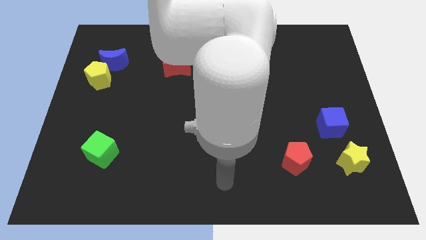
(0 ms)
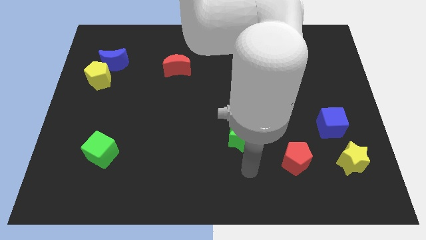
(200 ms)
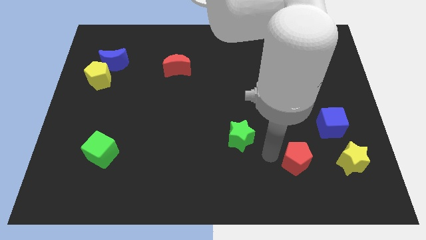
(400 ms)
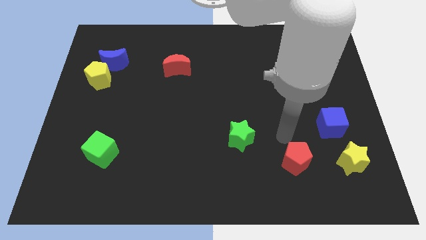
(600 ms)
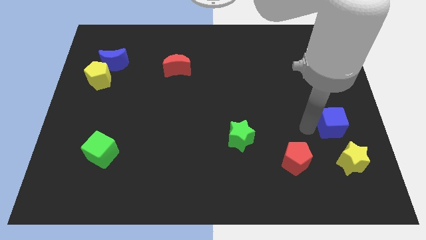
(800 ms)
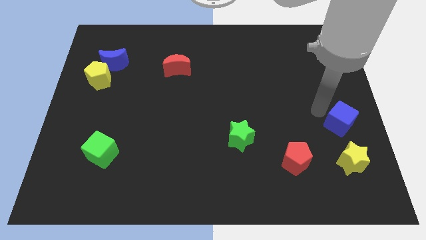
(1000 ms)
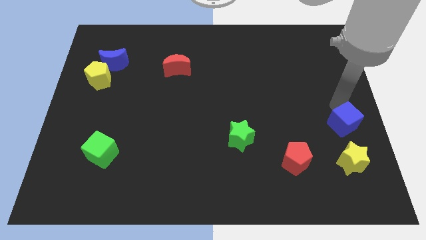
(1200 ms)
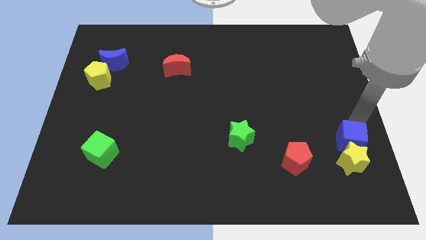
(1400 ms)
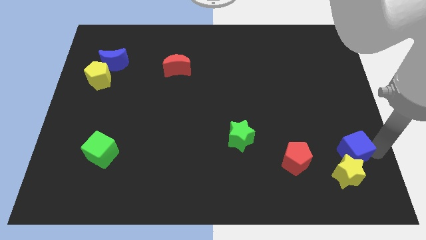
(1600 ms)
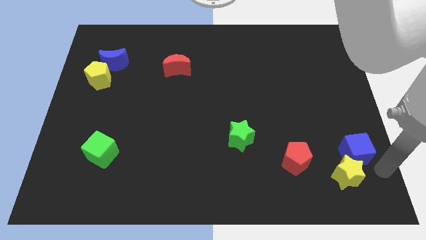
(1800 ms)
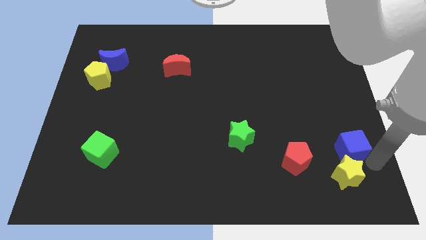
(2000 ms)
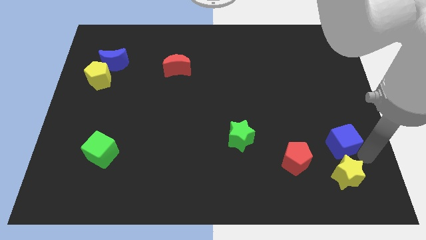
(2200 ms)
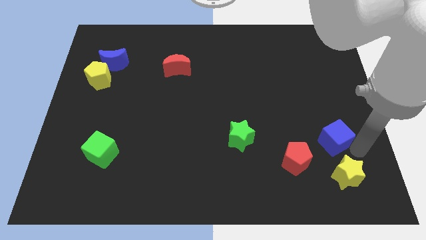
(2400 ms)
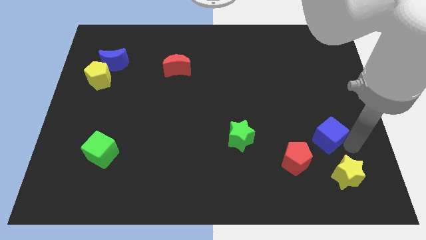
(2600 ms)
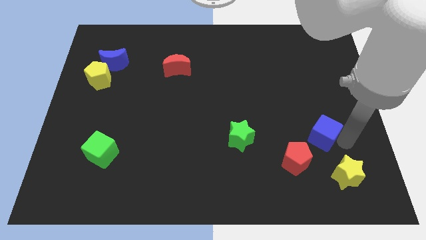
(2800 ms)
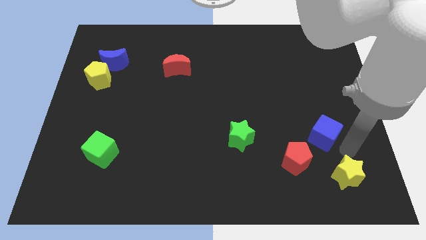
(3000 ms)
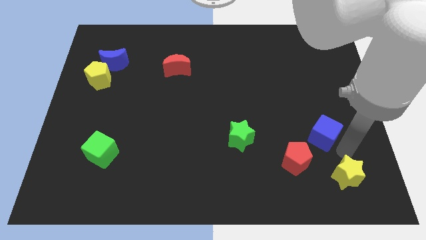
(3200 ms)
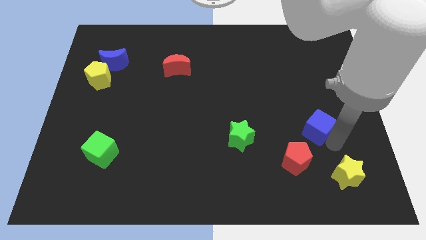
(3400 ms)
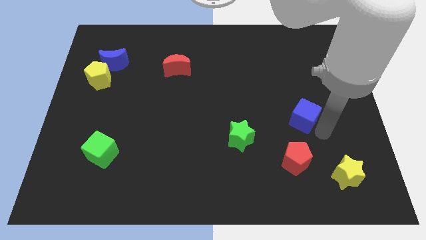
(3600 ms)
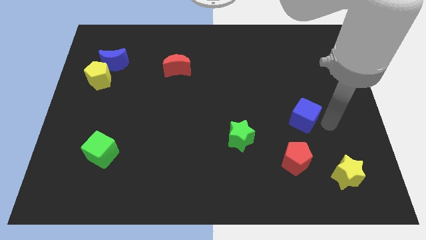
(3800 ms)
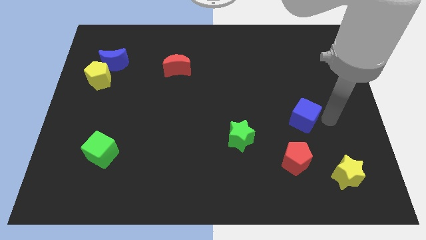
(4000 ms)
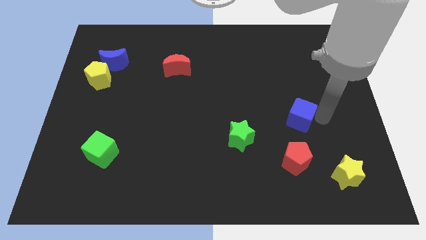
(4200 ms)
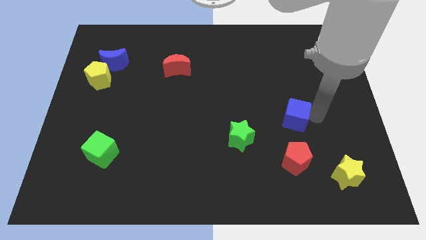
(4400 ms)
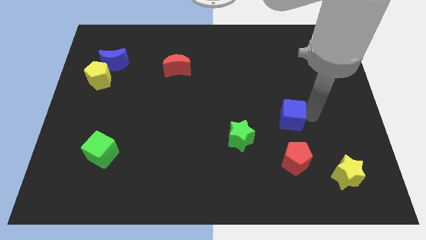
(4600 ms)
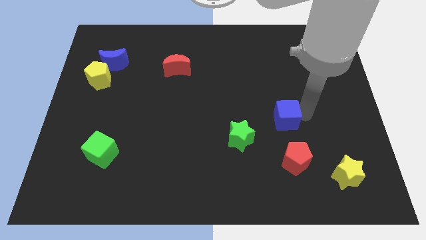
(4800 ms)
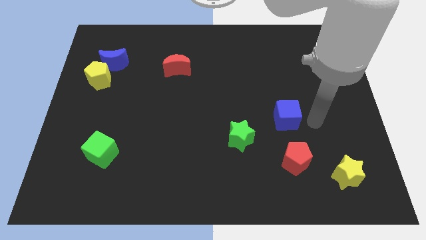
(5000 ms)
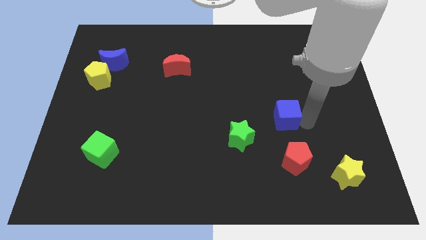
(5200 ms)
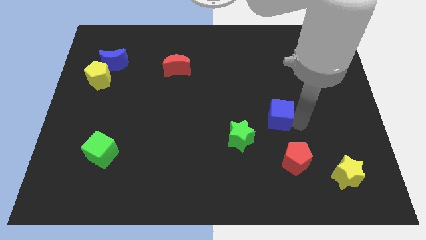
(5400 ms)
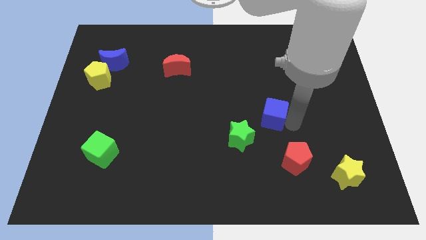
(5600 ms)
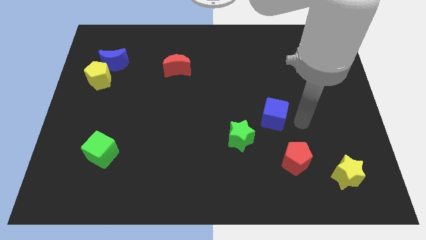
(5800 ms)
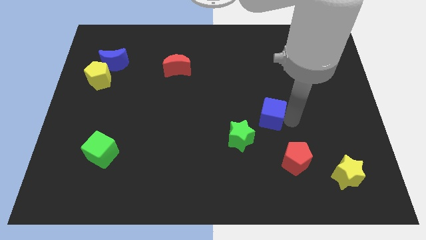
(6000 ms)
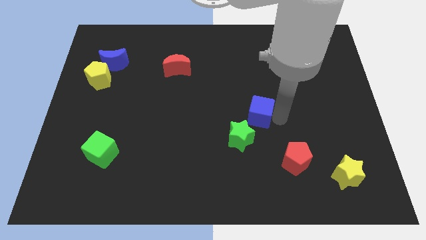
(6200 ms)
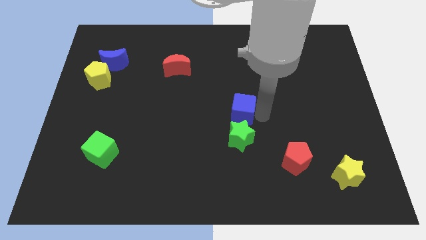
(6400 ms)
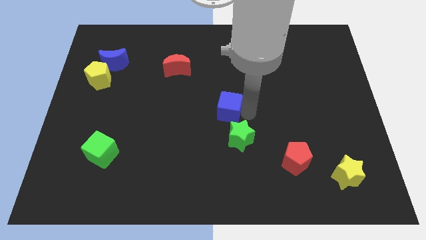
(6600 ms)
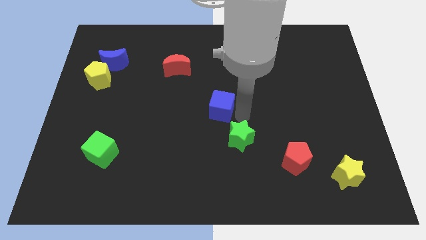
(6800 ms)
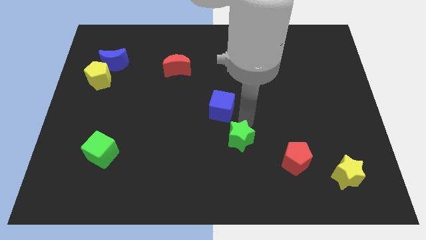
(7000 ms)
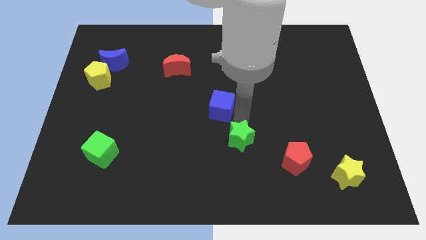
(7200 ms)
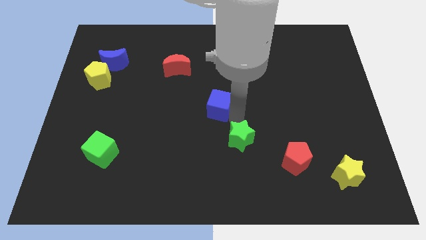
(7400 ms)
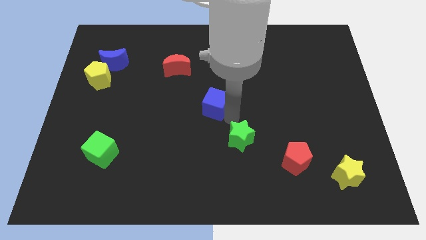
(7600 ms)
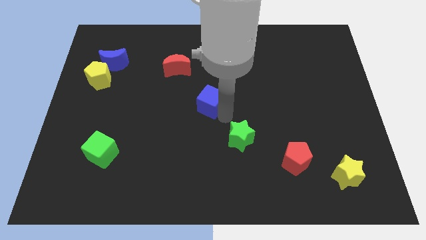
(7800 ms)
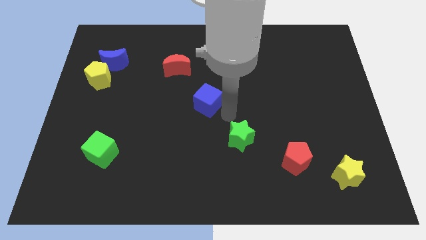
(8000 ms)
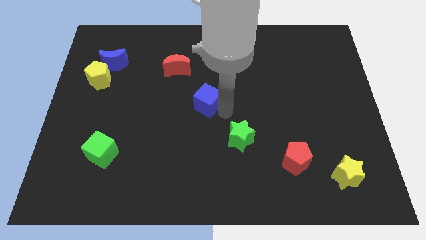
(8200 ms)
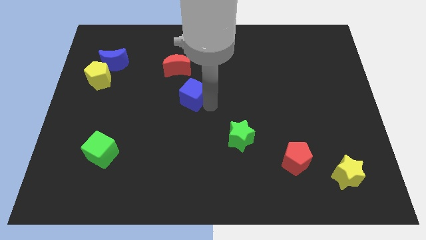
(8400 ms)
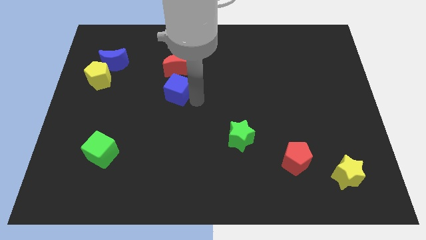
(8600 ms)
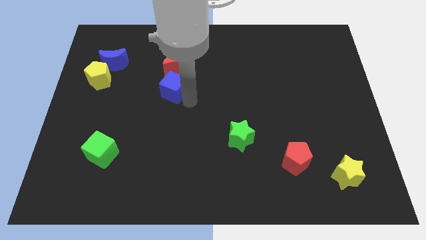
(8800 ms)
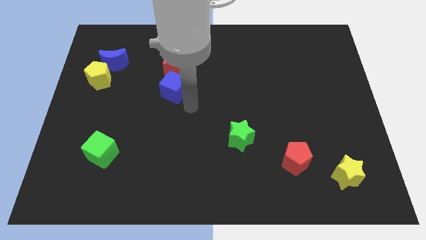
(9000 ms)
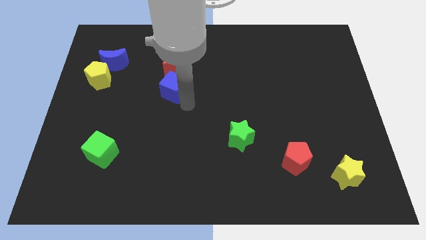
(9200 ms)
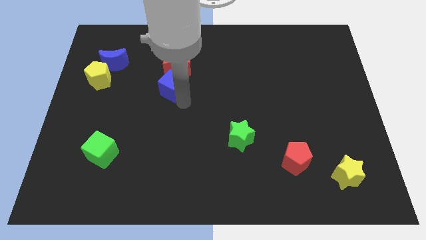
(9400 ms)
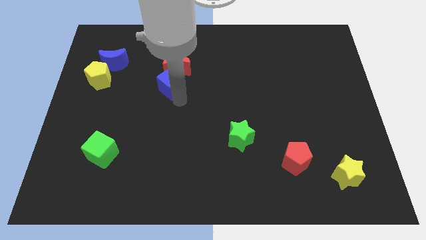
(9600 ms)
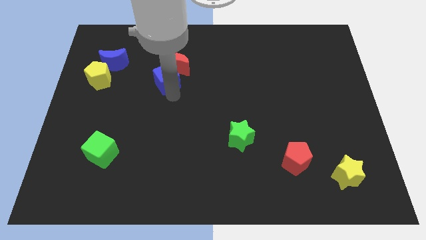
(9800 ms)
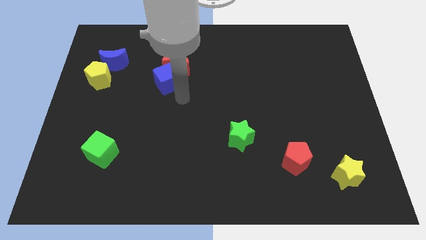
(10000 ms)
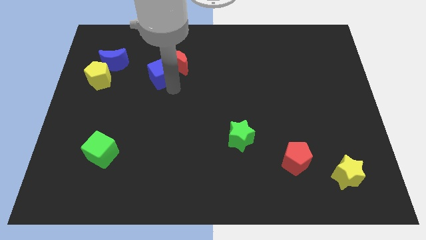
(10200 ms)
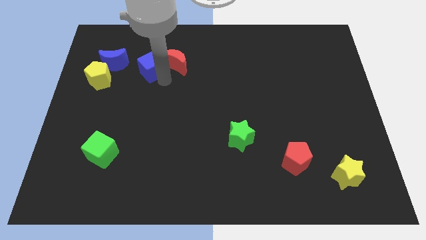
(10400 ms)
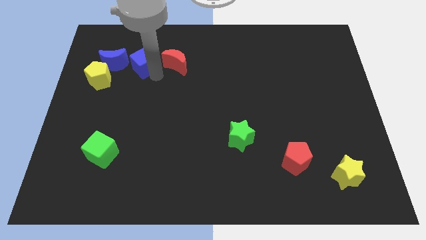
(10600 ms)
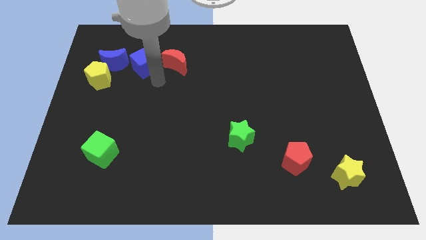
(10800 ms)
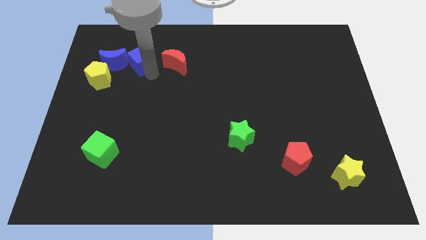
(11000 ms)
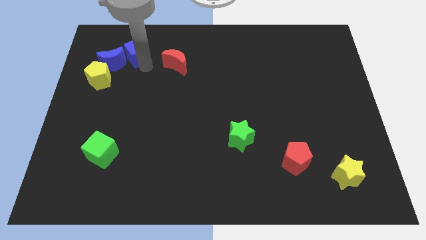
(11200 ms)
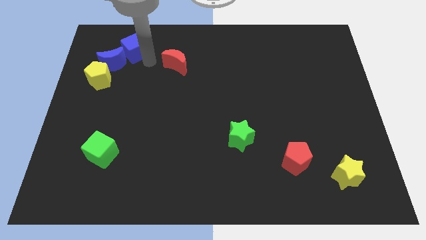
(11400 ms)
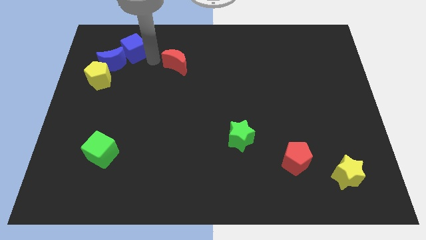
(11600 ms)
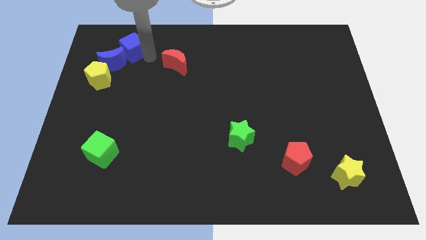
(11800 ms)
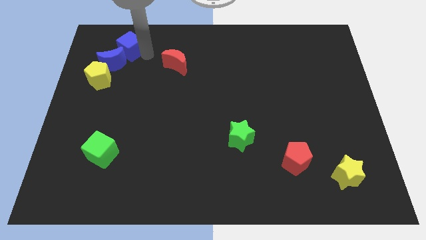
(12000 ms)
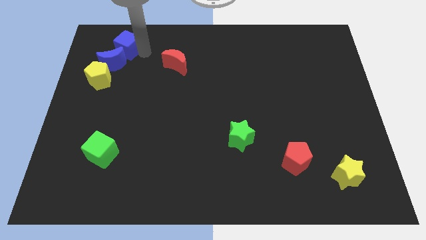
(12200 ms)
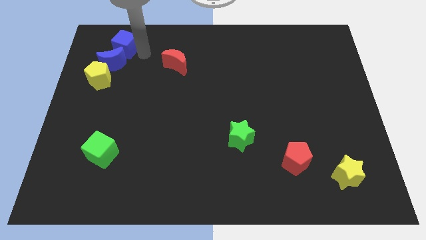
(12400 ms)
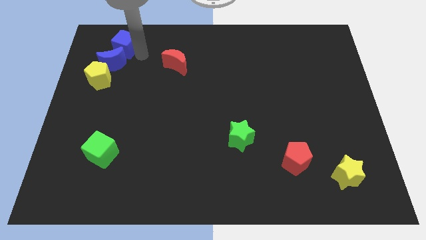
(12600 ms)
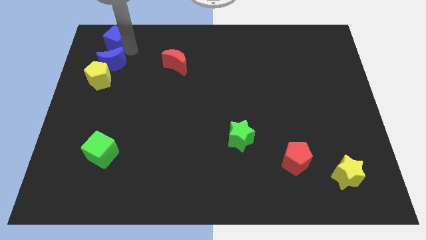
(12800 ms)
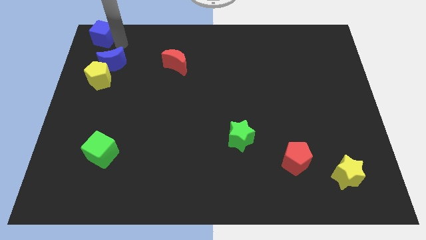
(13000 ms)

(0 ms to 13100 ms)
put the blue cube to the upper left corner

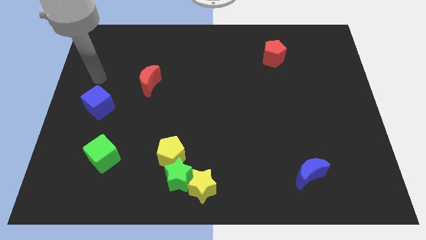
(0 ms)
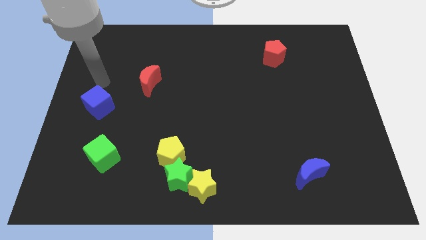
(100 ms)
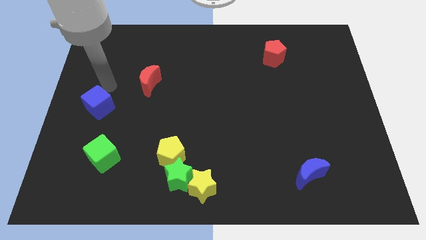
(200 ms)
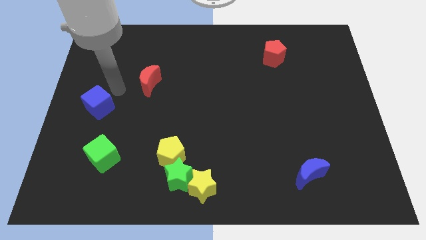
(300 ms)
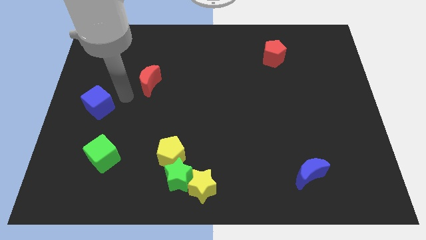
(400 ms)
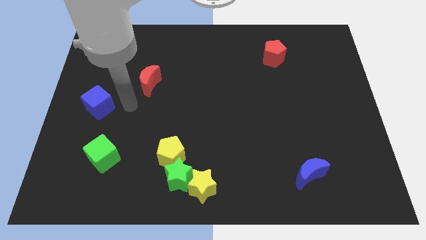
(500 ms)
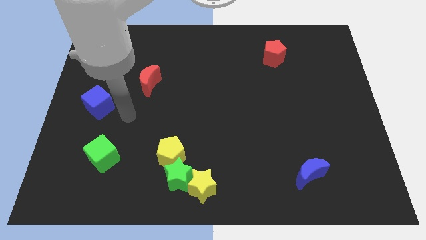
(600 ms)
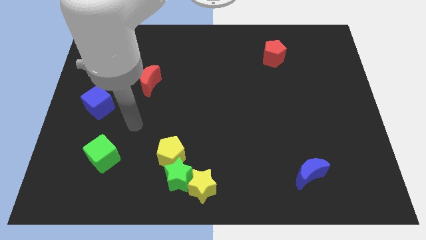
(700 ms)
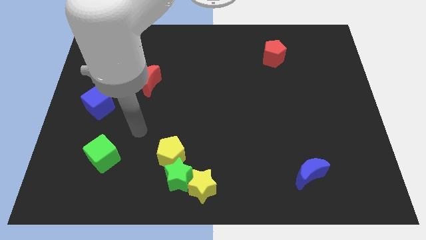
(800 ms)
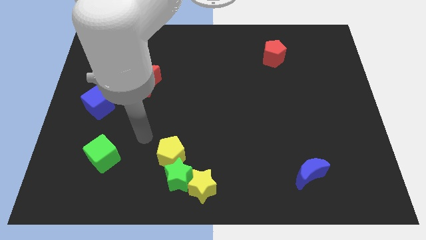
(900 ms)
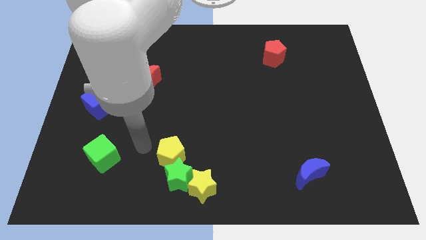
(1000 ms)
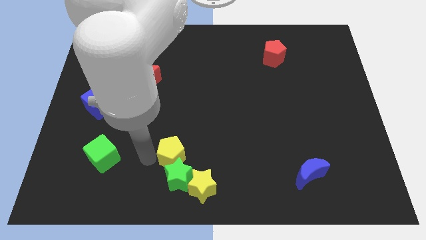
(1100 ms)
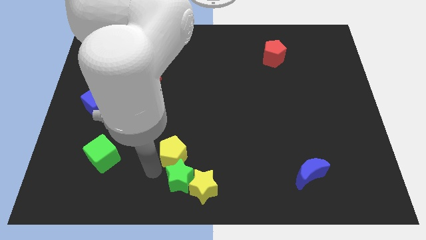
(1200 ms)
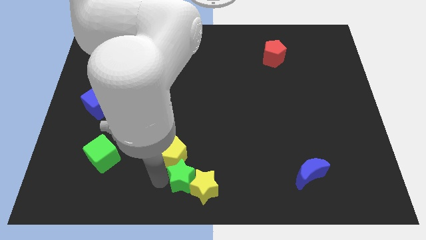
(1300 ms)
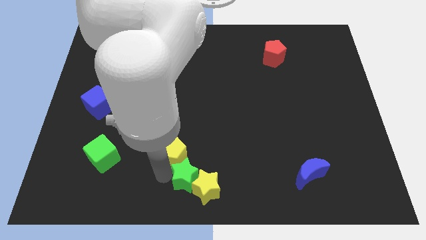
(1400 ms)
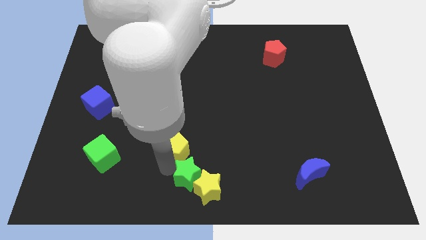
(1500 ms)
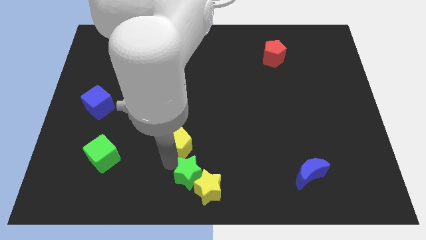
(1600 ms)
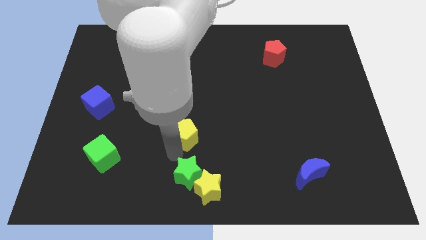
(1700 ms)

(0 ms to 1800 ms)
slide the yellow pentagon to the center of the board
